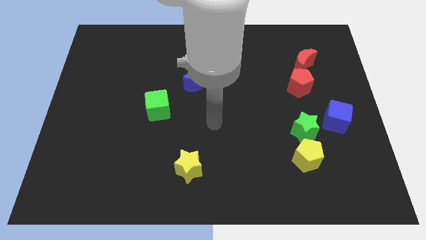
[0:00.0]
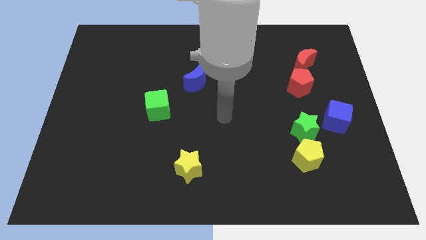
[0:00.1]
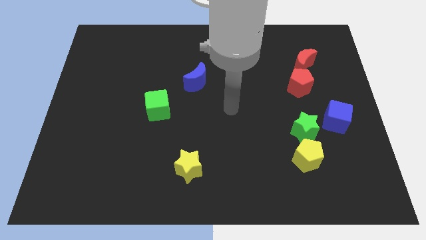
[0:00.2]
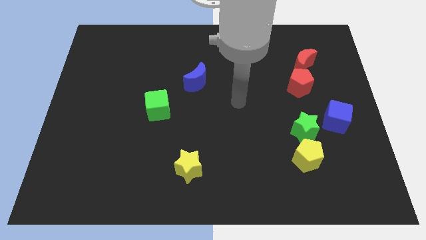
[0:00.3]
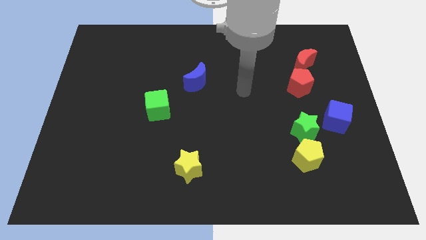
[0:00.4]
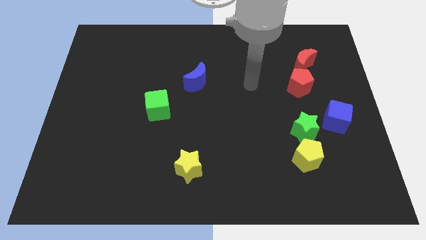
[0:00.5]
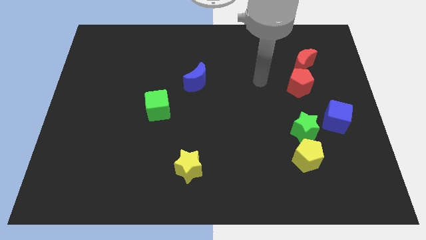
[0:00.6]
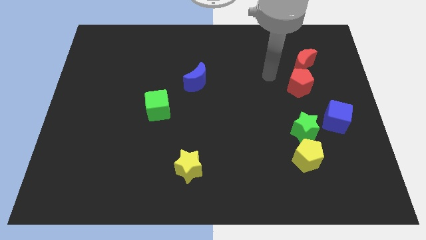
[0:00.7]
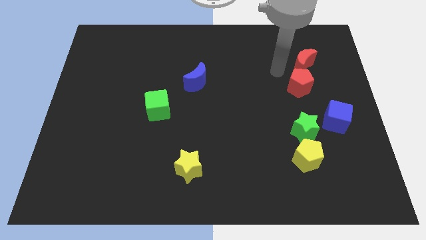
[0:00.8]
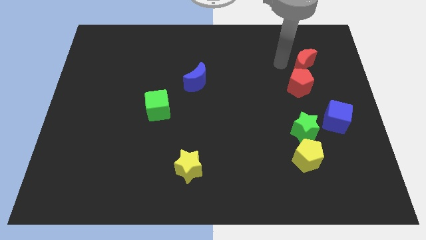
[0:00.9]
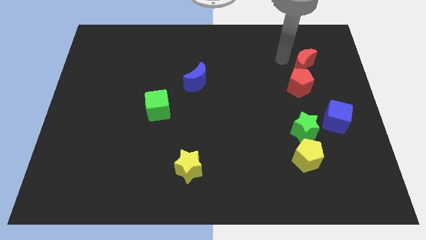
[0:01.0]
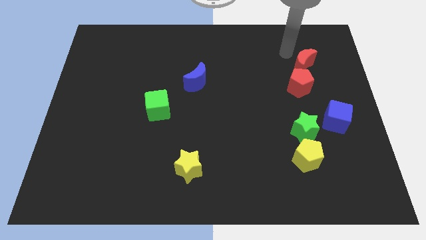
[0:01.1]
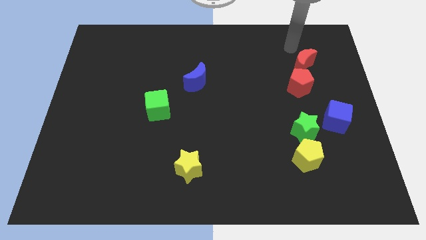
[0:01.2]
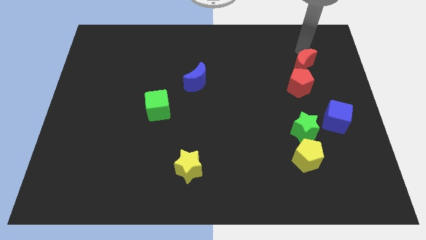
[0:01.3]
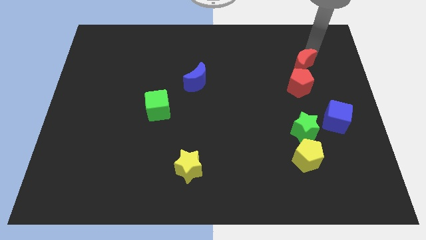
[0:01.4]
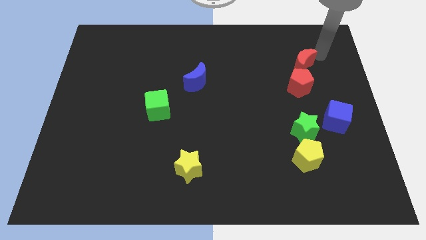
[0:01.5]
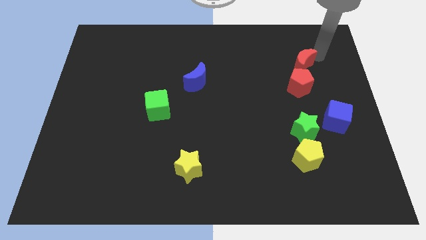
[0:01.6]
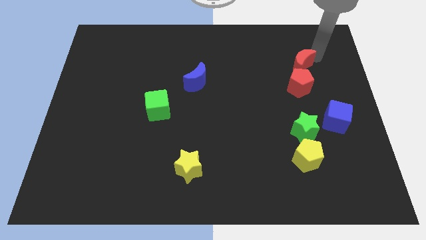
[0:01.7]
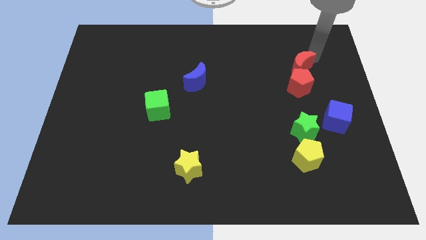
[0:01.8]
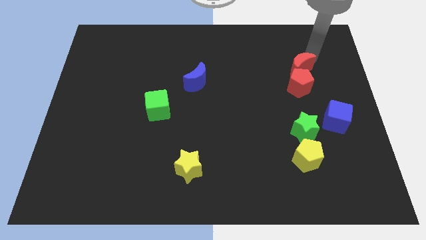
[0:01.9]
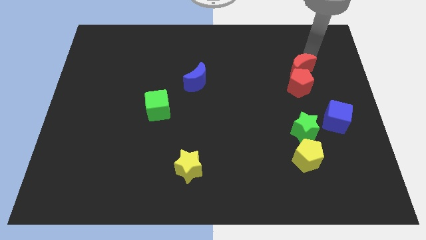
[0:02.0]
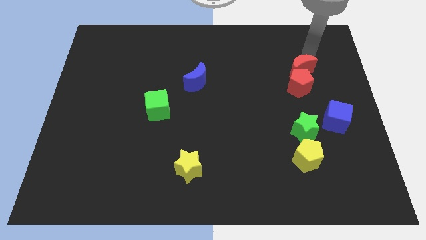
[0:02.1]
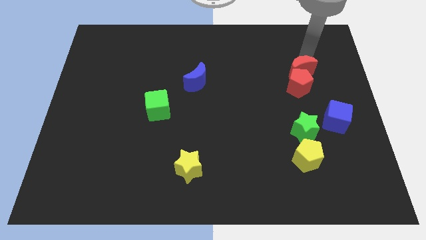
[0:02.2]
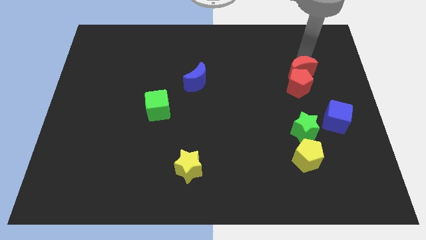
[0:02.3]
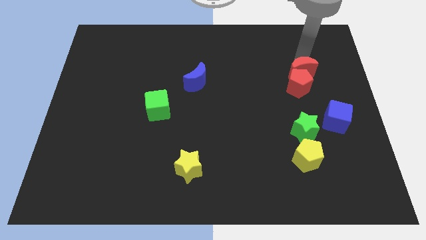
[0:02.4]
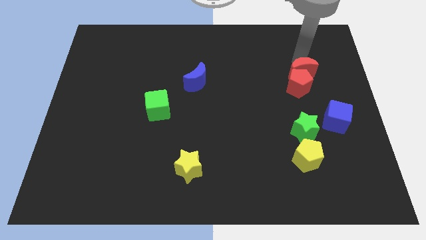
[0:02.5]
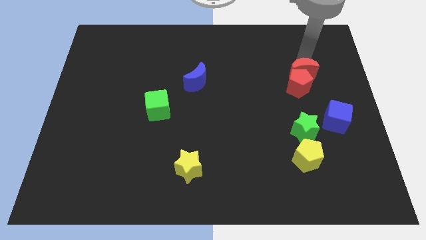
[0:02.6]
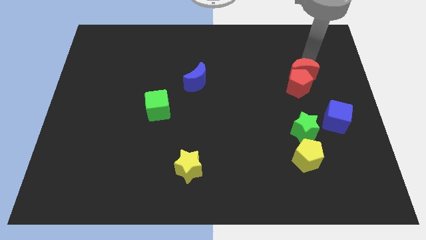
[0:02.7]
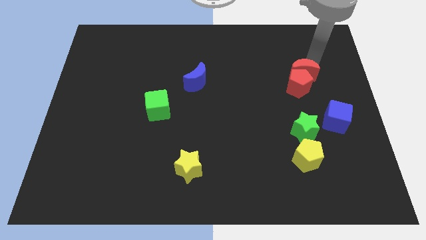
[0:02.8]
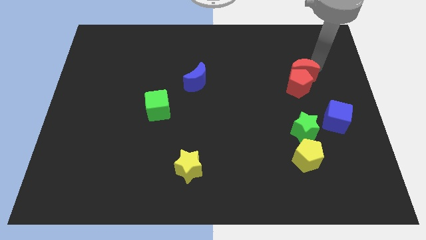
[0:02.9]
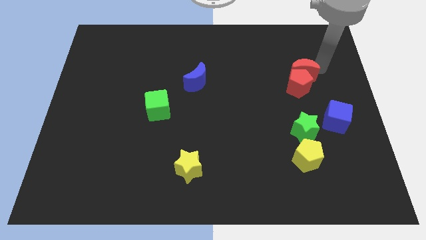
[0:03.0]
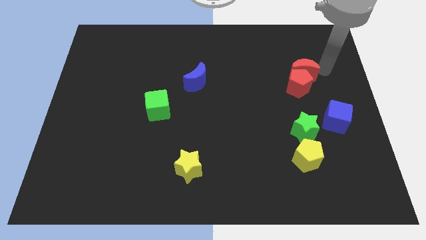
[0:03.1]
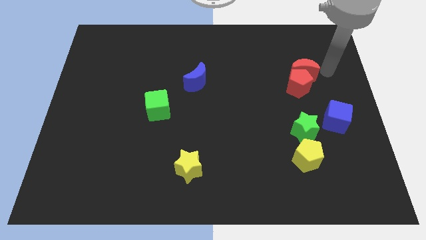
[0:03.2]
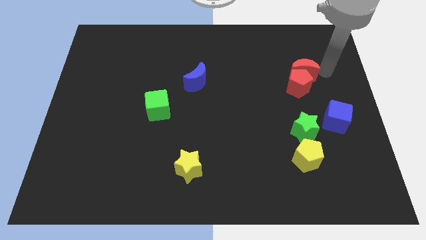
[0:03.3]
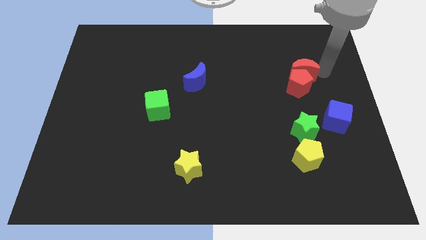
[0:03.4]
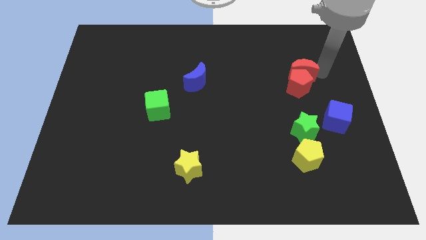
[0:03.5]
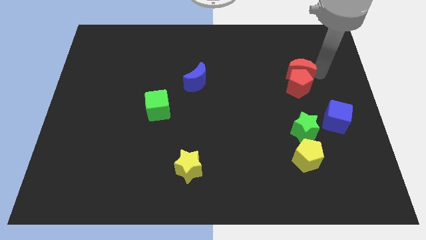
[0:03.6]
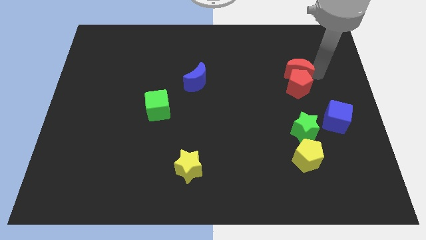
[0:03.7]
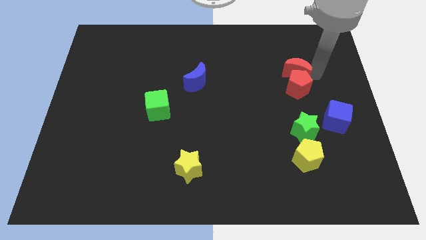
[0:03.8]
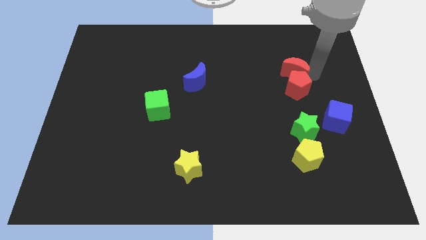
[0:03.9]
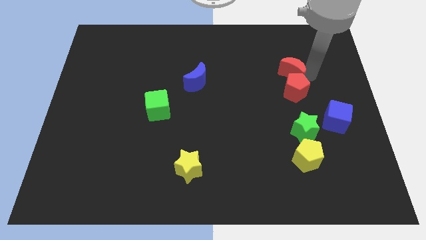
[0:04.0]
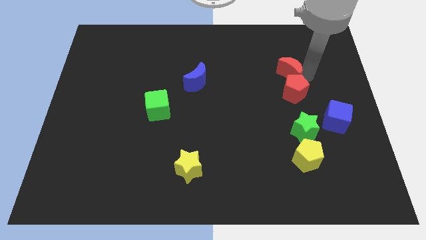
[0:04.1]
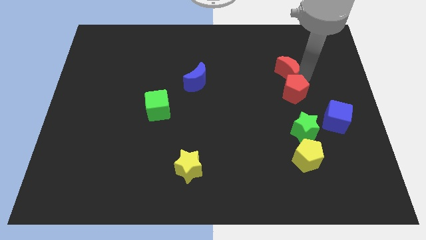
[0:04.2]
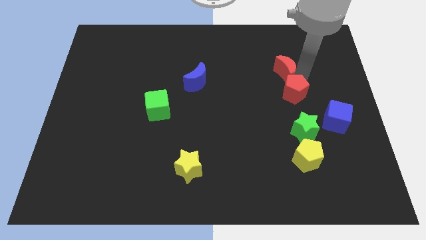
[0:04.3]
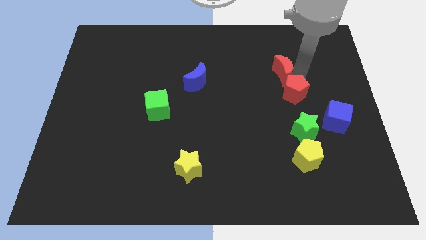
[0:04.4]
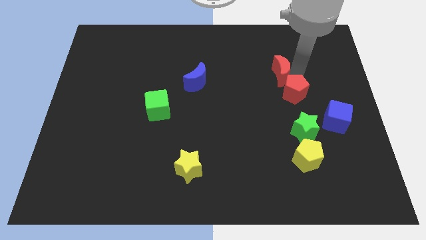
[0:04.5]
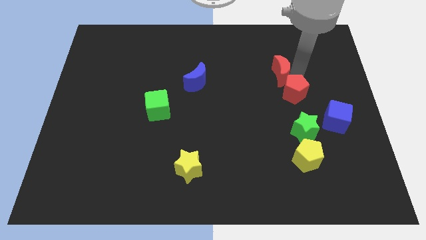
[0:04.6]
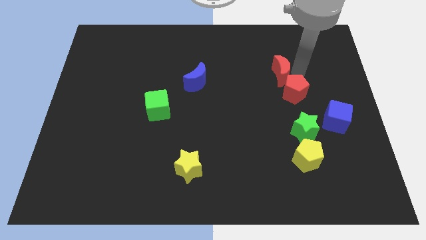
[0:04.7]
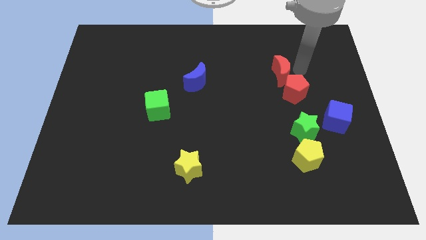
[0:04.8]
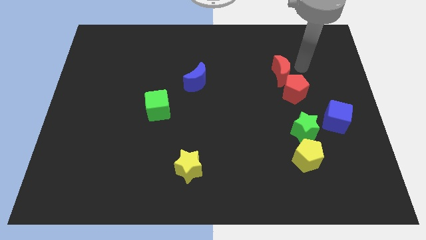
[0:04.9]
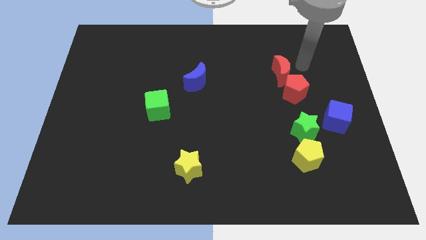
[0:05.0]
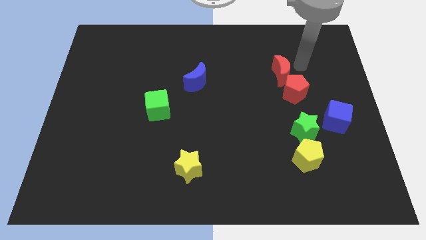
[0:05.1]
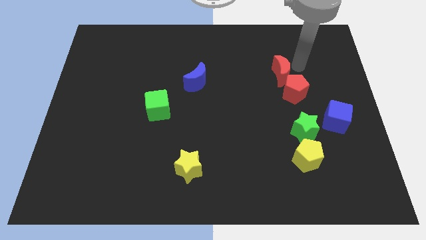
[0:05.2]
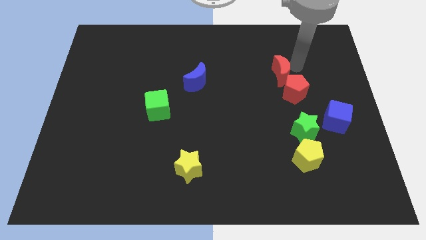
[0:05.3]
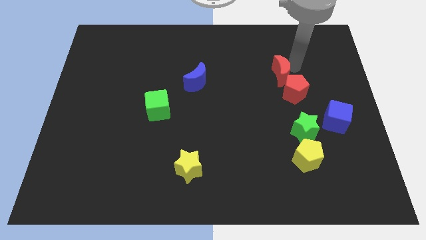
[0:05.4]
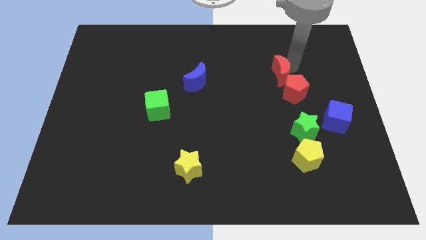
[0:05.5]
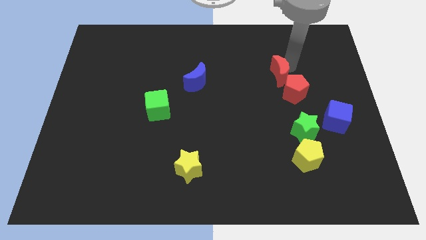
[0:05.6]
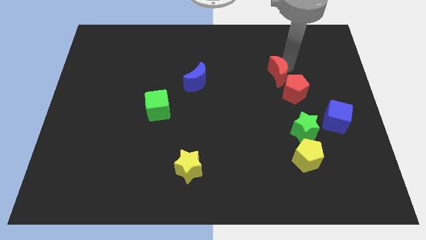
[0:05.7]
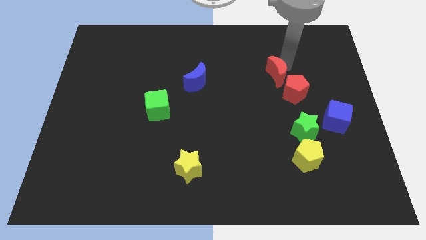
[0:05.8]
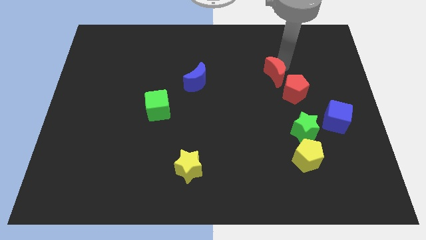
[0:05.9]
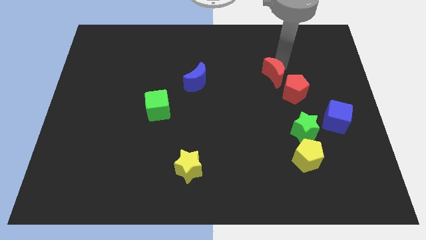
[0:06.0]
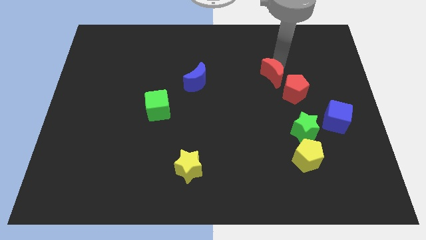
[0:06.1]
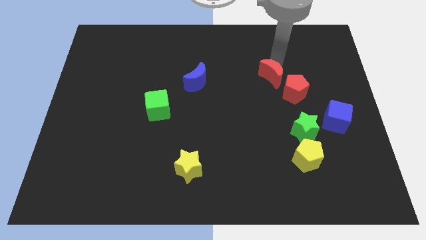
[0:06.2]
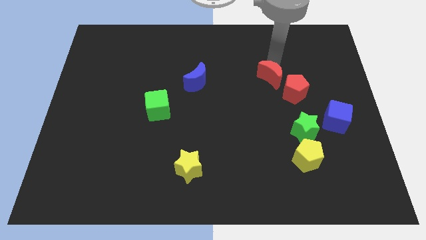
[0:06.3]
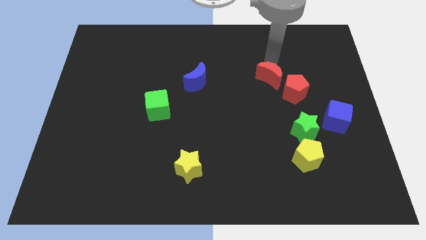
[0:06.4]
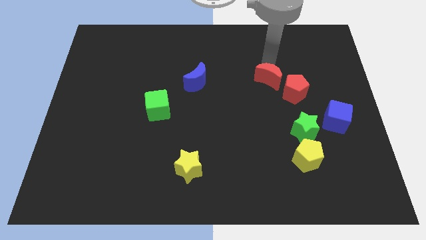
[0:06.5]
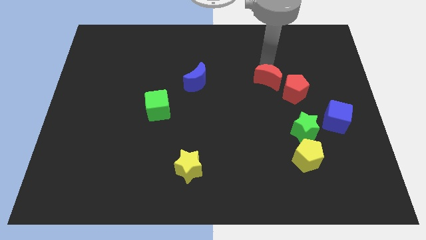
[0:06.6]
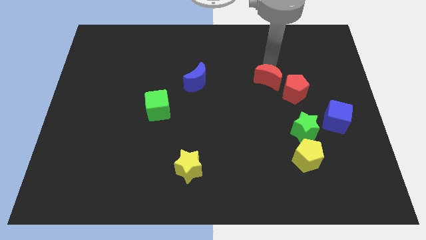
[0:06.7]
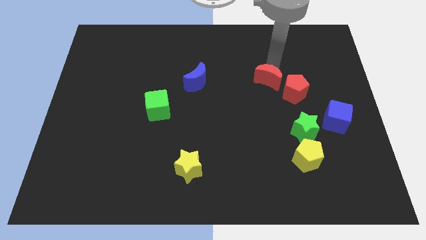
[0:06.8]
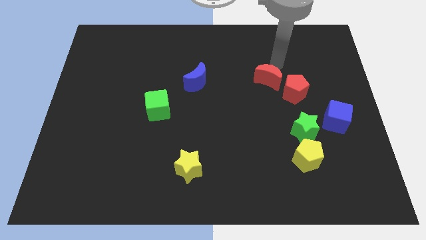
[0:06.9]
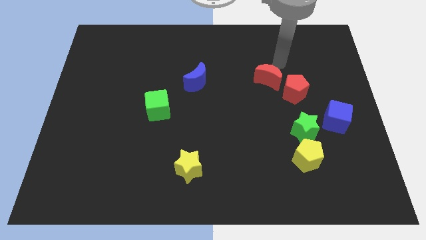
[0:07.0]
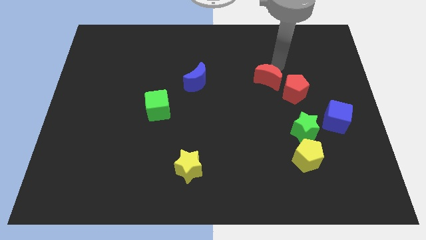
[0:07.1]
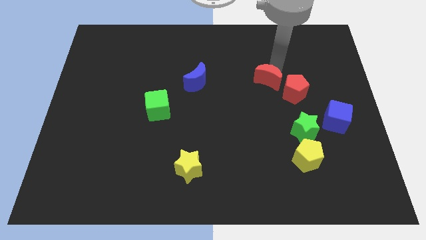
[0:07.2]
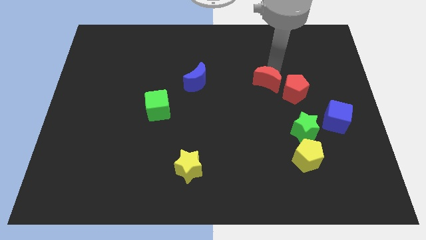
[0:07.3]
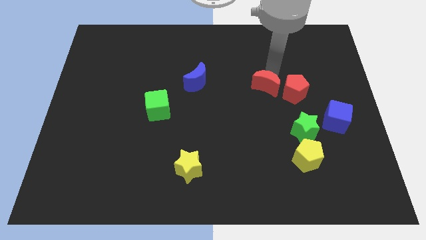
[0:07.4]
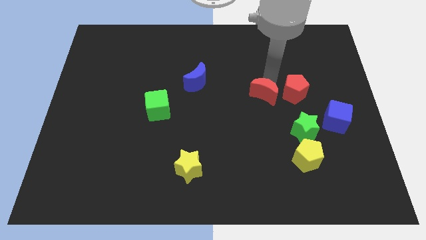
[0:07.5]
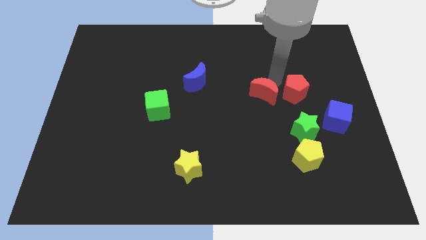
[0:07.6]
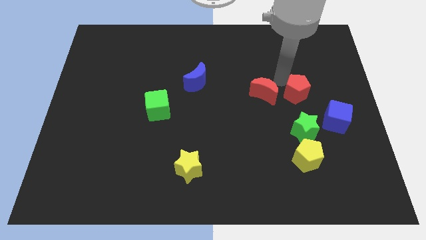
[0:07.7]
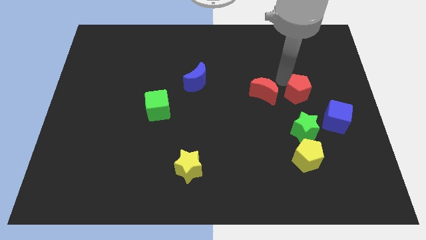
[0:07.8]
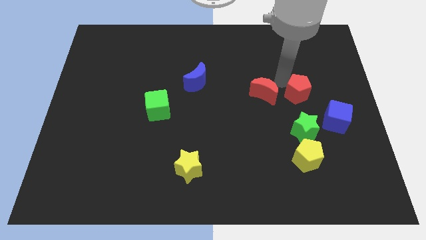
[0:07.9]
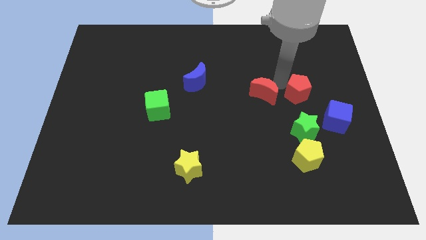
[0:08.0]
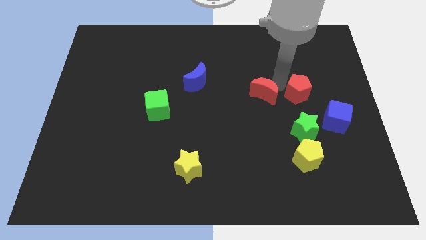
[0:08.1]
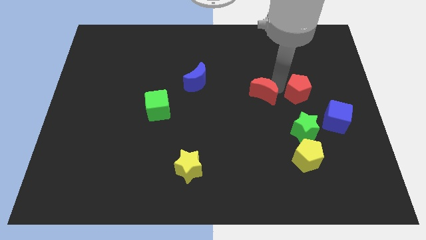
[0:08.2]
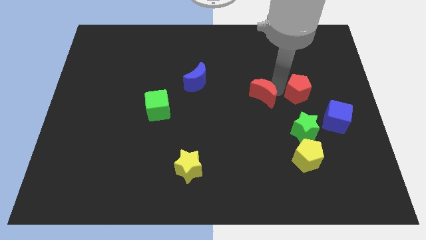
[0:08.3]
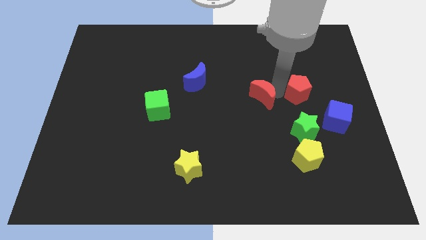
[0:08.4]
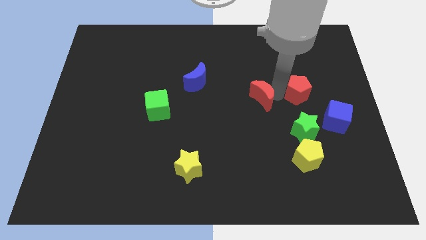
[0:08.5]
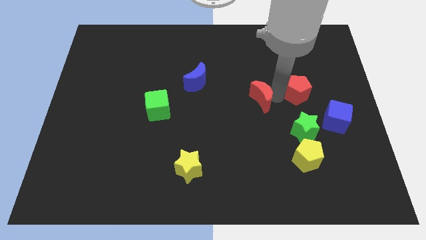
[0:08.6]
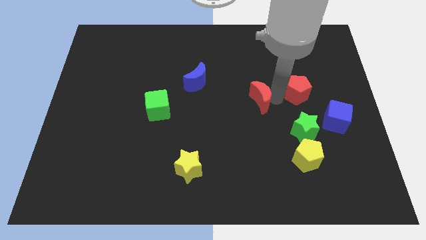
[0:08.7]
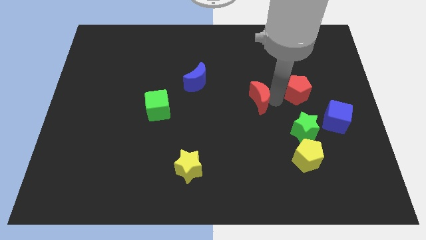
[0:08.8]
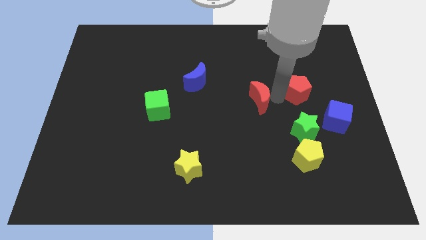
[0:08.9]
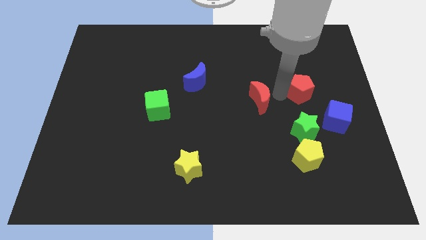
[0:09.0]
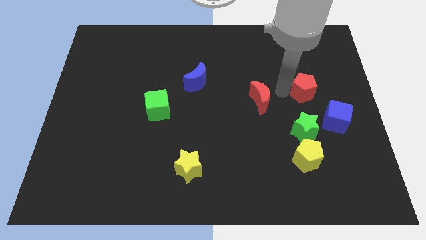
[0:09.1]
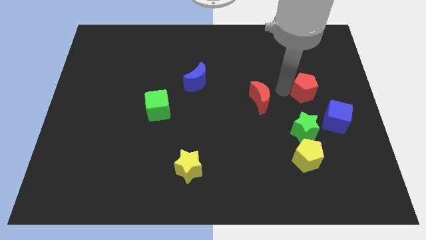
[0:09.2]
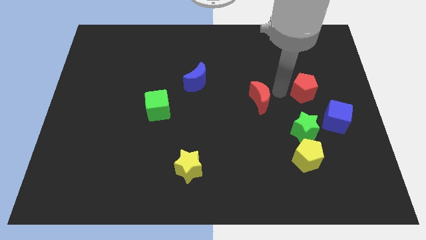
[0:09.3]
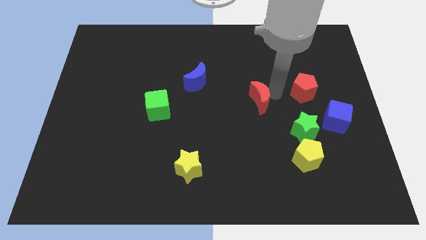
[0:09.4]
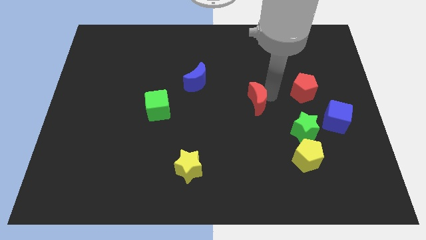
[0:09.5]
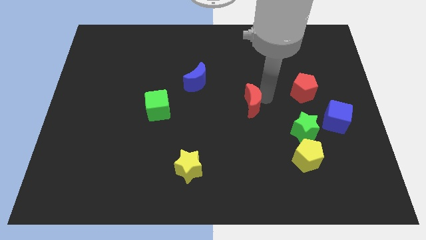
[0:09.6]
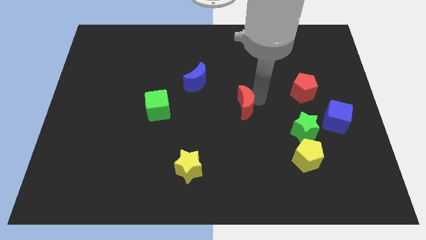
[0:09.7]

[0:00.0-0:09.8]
slide the red moon downwards and to the left
